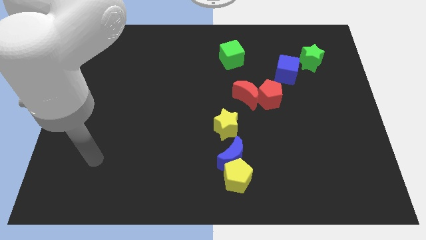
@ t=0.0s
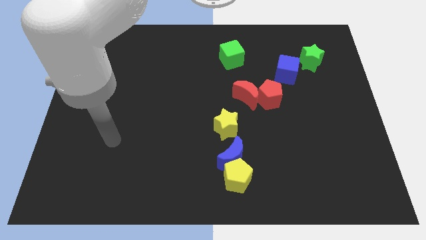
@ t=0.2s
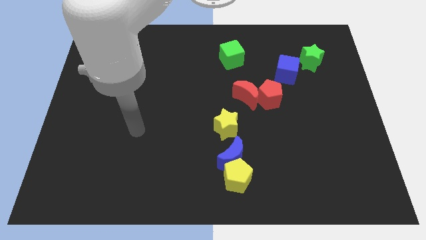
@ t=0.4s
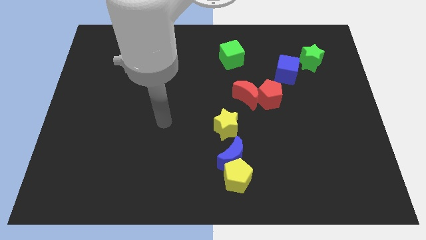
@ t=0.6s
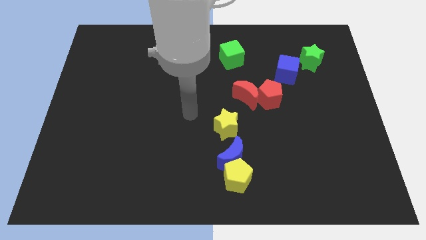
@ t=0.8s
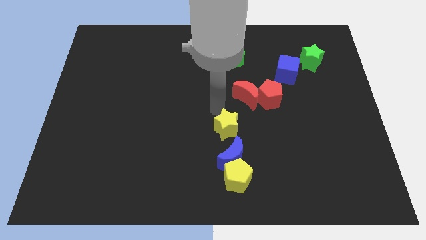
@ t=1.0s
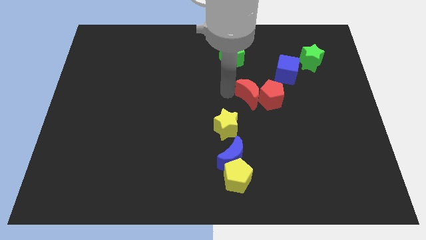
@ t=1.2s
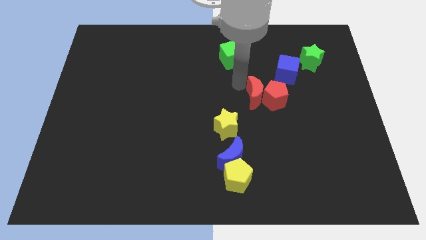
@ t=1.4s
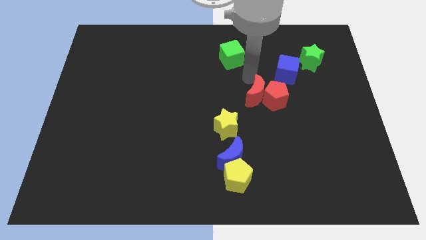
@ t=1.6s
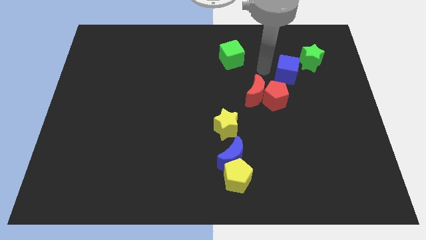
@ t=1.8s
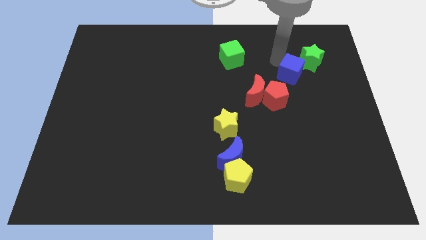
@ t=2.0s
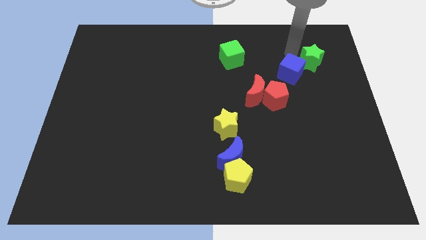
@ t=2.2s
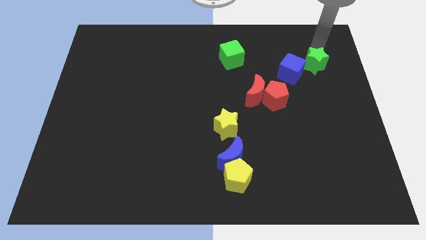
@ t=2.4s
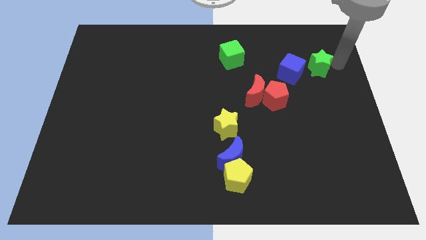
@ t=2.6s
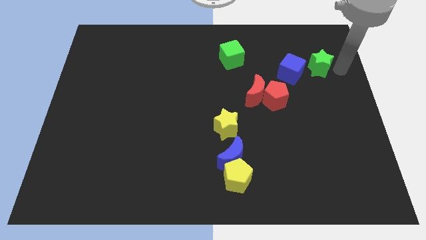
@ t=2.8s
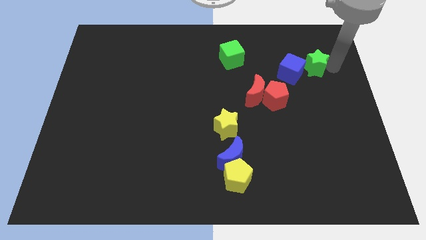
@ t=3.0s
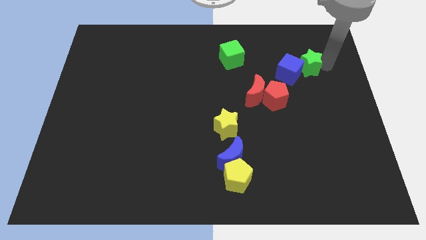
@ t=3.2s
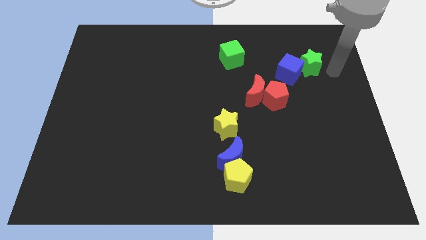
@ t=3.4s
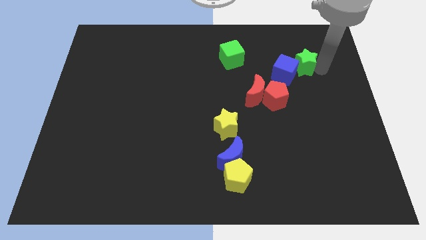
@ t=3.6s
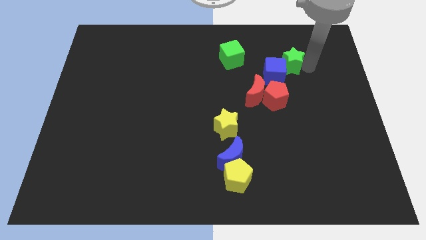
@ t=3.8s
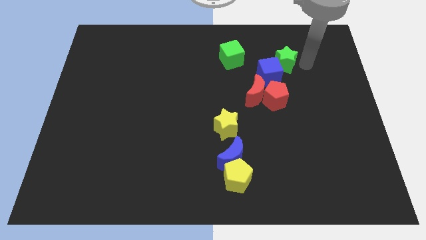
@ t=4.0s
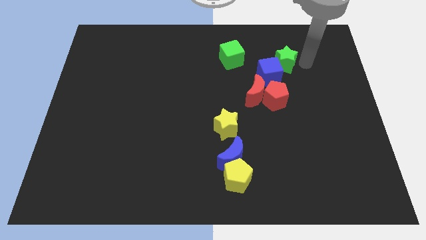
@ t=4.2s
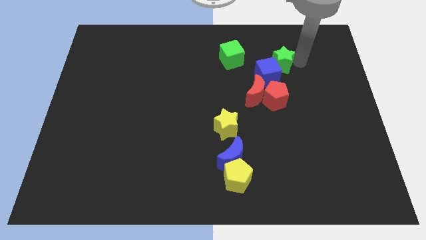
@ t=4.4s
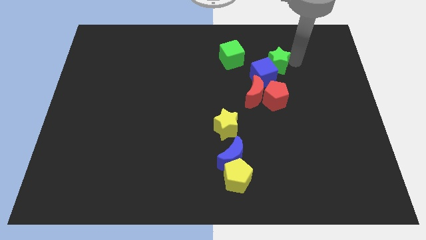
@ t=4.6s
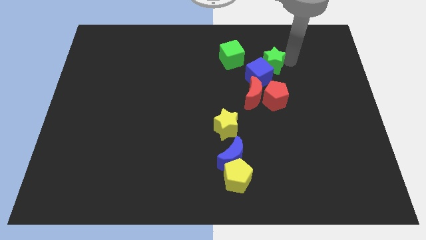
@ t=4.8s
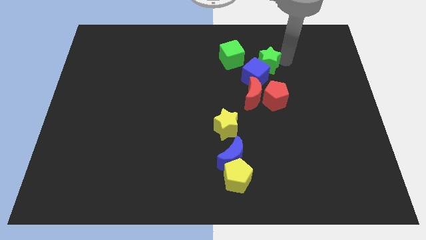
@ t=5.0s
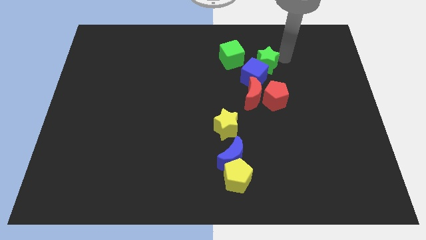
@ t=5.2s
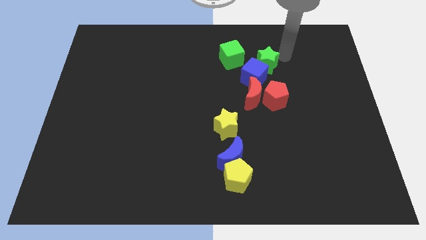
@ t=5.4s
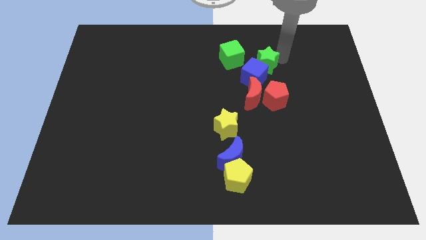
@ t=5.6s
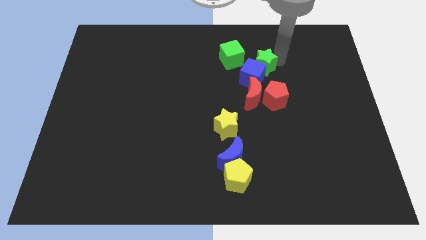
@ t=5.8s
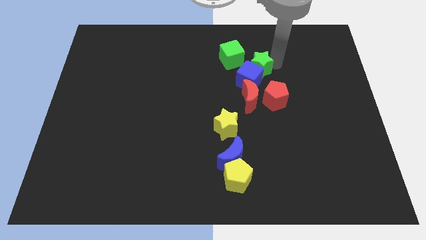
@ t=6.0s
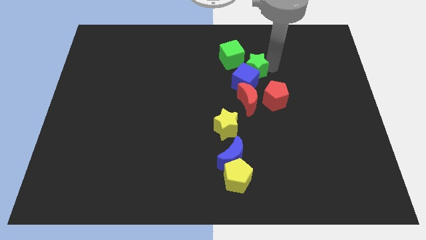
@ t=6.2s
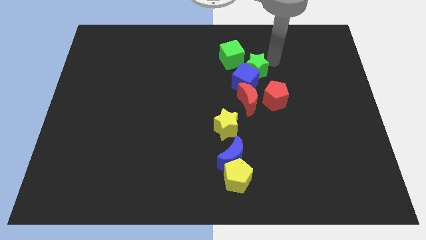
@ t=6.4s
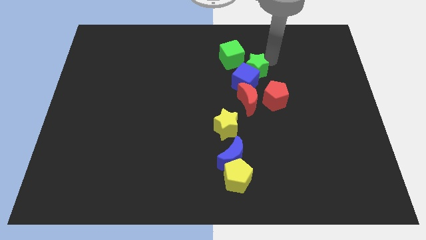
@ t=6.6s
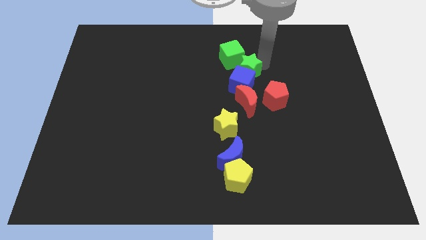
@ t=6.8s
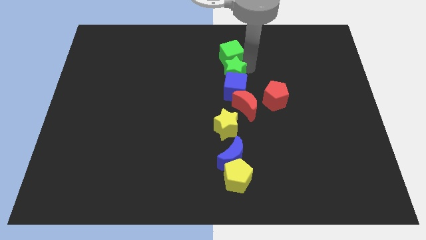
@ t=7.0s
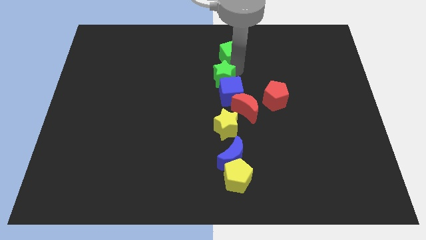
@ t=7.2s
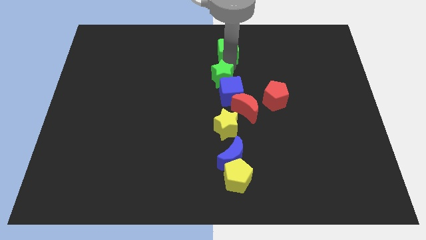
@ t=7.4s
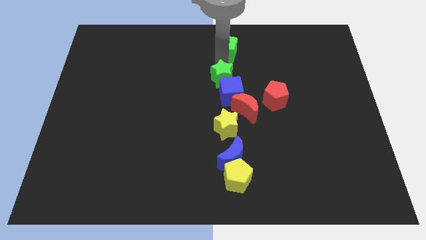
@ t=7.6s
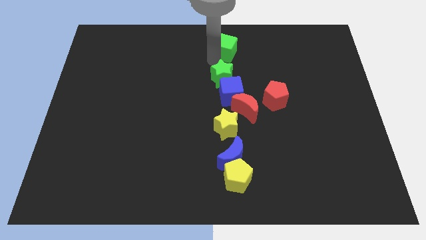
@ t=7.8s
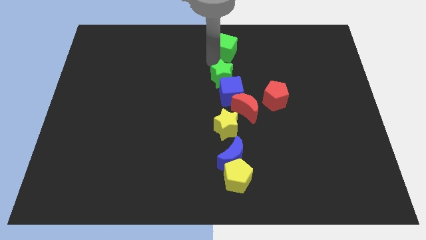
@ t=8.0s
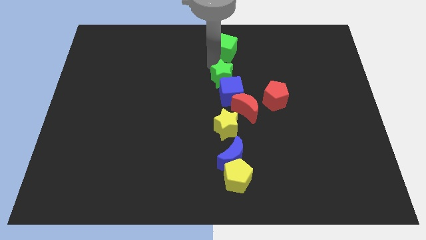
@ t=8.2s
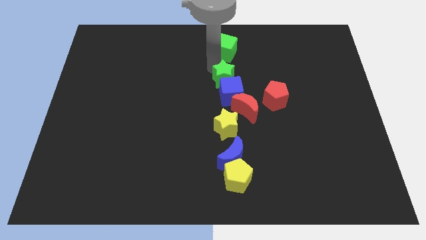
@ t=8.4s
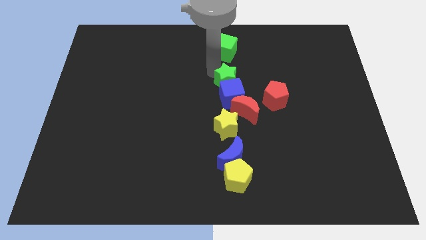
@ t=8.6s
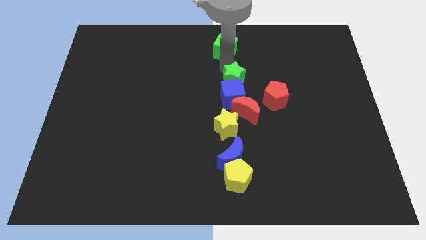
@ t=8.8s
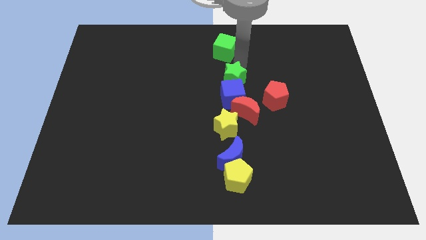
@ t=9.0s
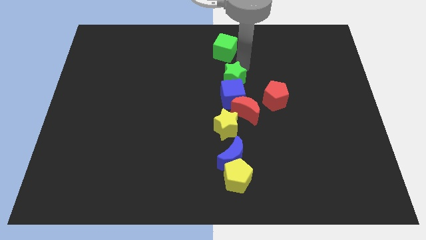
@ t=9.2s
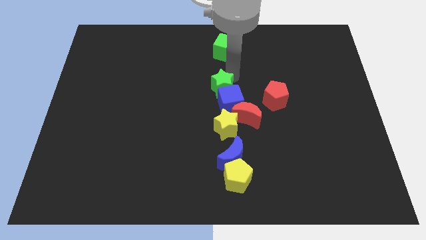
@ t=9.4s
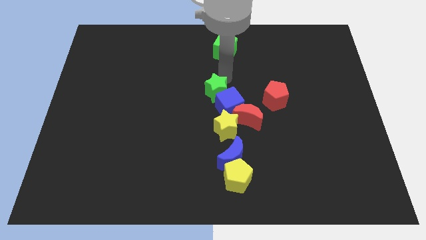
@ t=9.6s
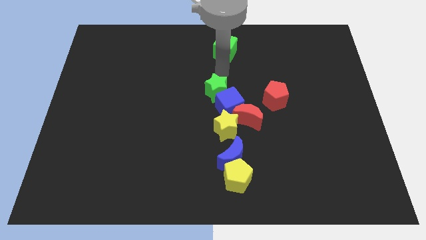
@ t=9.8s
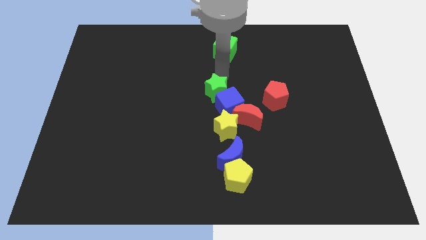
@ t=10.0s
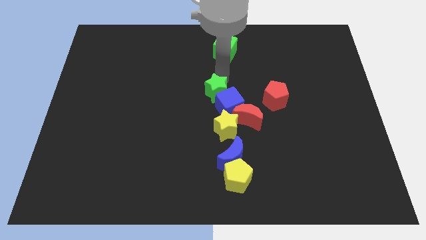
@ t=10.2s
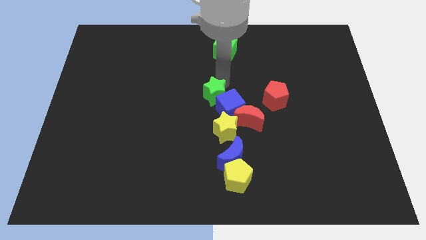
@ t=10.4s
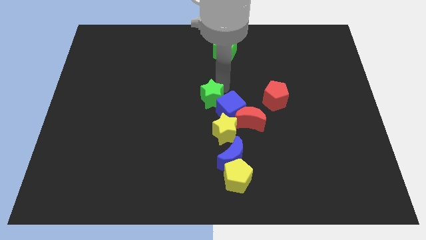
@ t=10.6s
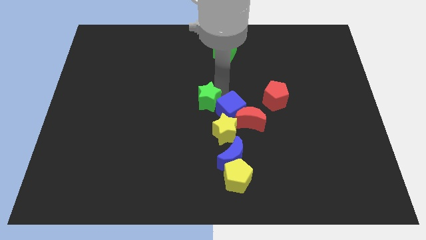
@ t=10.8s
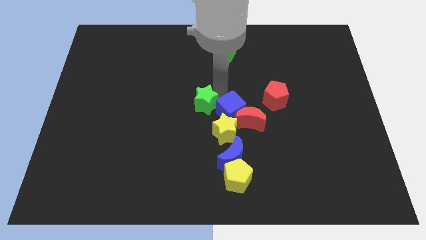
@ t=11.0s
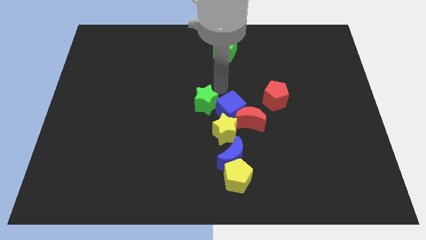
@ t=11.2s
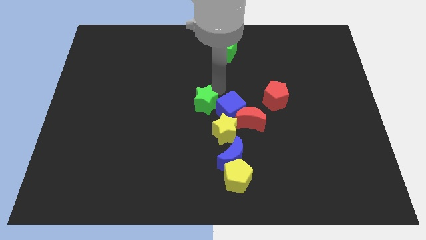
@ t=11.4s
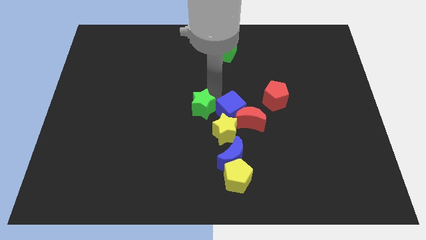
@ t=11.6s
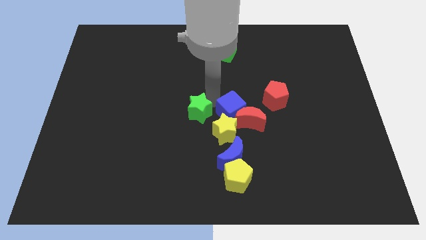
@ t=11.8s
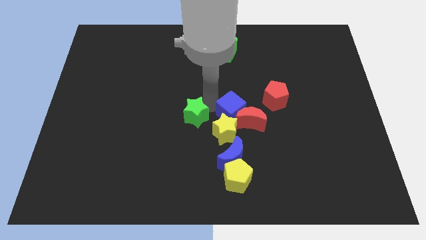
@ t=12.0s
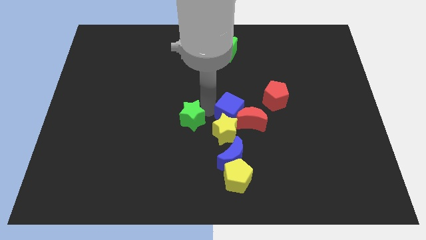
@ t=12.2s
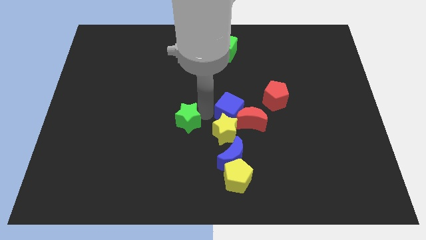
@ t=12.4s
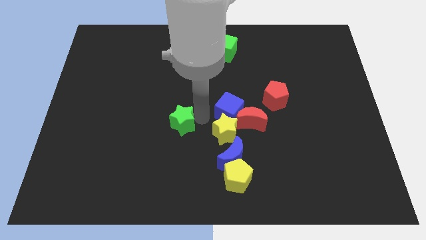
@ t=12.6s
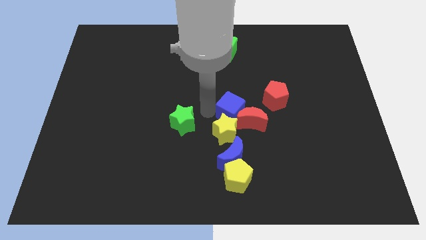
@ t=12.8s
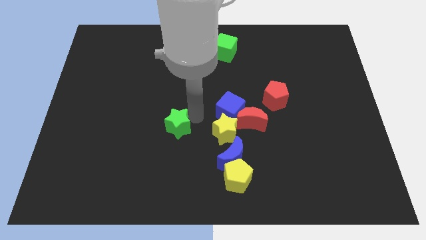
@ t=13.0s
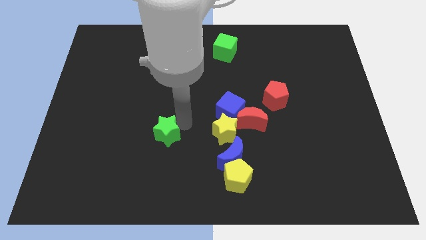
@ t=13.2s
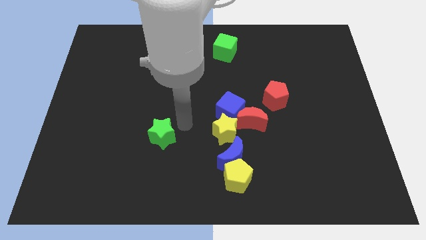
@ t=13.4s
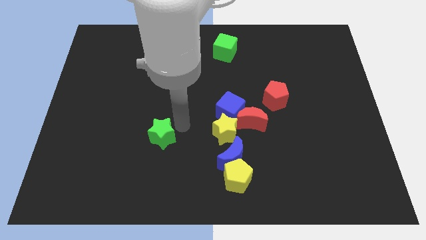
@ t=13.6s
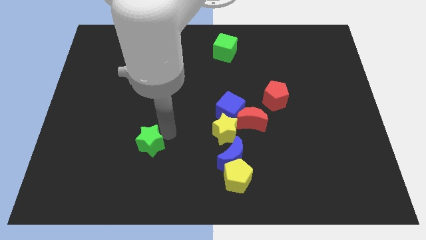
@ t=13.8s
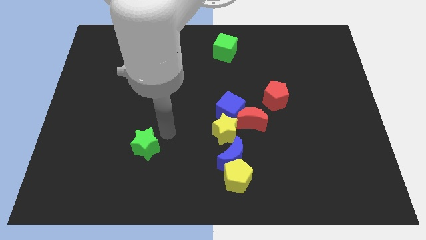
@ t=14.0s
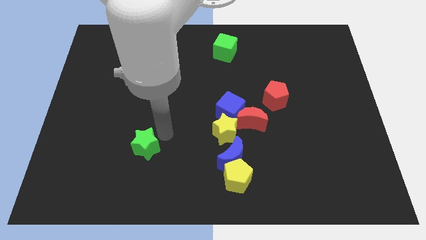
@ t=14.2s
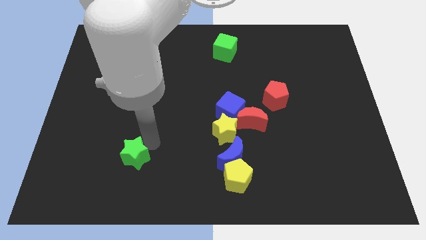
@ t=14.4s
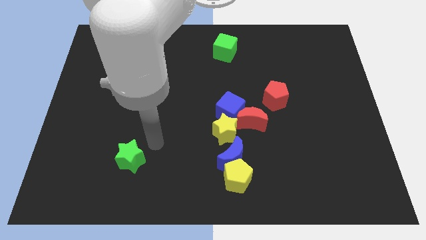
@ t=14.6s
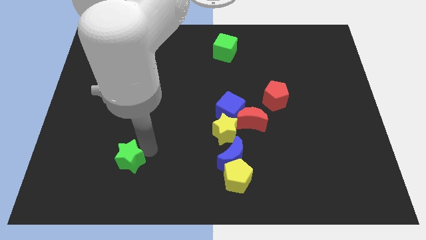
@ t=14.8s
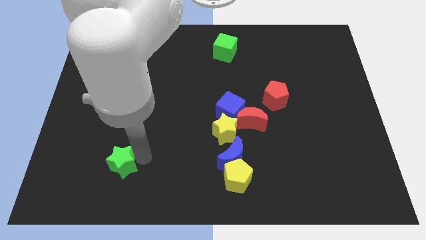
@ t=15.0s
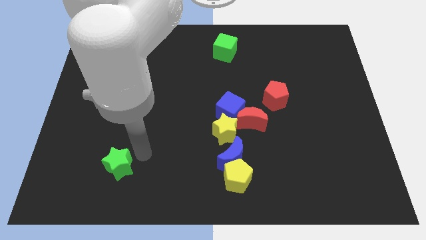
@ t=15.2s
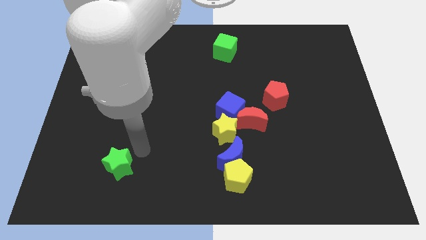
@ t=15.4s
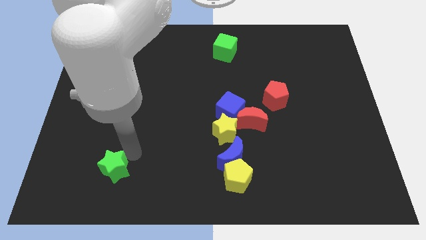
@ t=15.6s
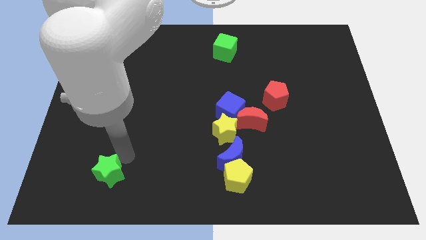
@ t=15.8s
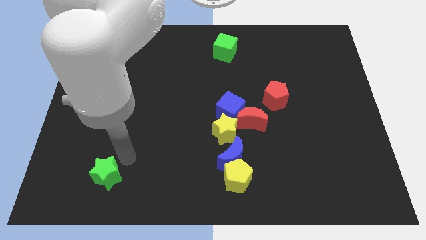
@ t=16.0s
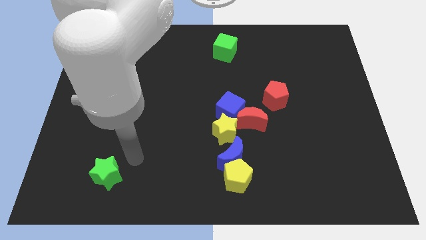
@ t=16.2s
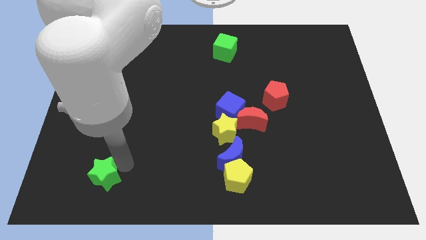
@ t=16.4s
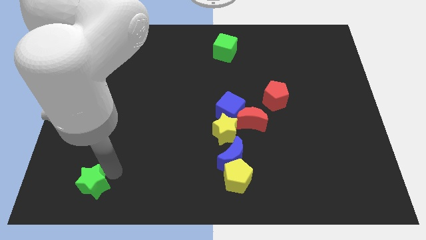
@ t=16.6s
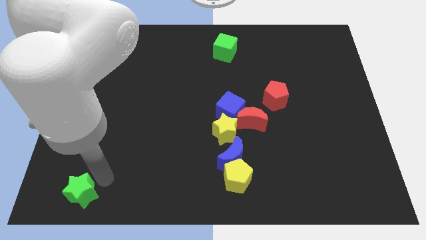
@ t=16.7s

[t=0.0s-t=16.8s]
push the green star to the bottom left
